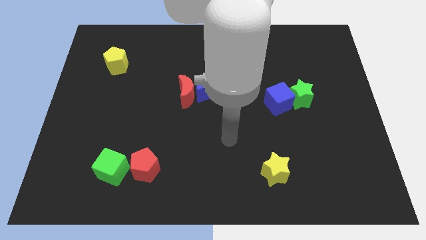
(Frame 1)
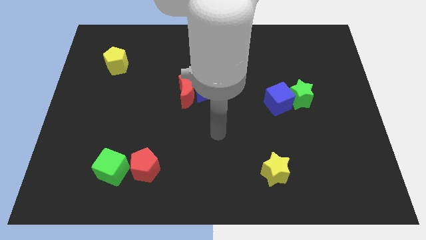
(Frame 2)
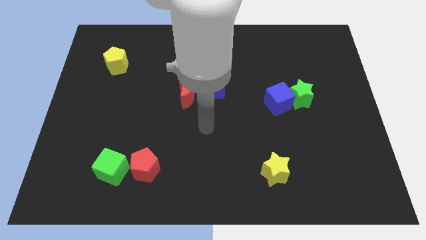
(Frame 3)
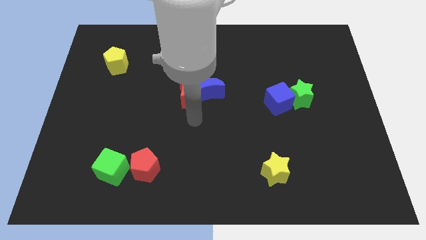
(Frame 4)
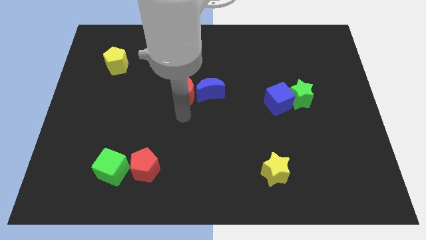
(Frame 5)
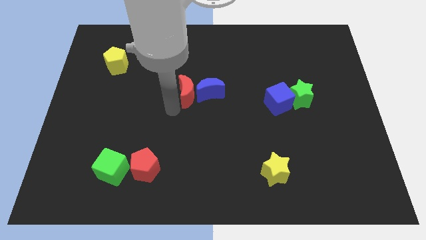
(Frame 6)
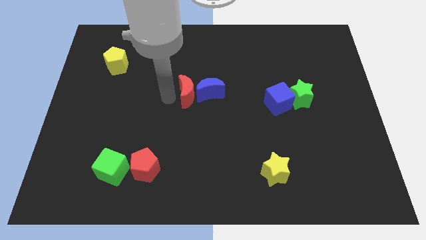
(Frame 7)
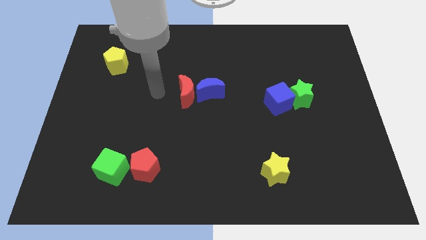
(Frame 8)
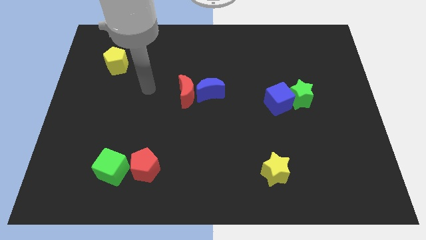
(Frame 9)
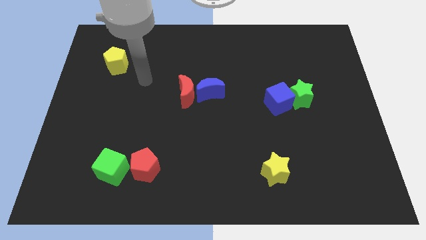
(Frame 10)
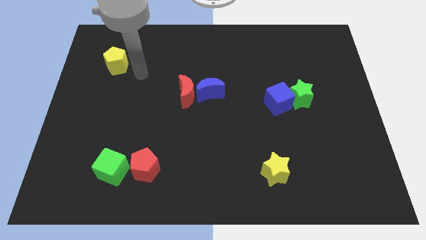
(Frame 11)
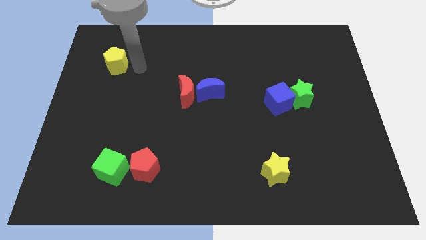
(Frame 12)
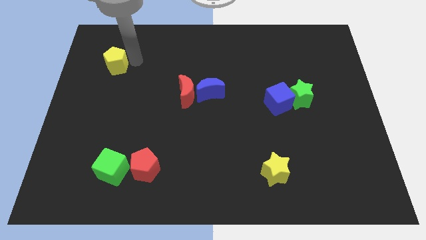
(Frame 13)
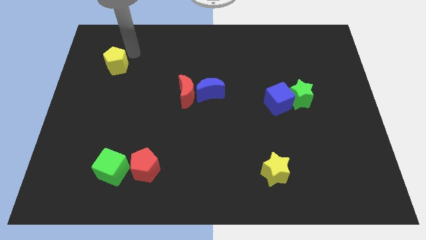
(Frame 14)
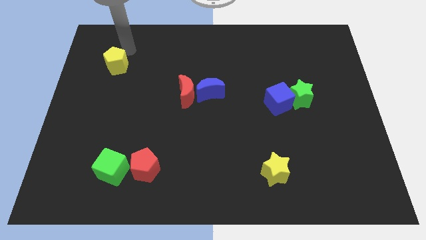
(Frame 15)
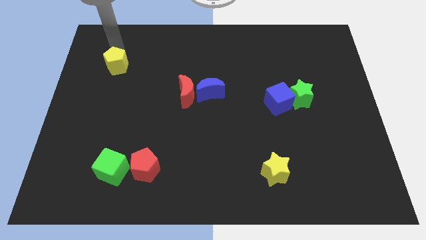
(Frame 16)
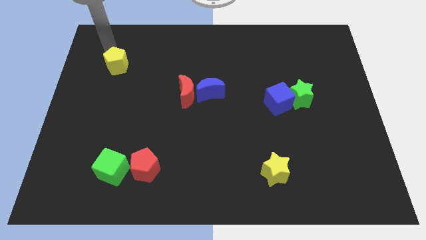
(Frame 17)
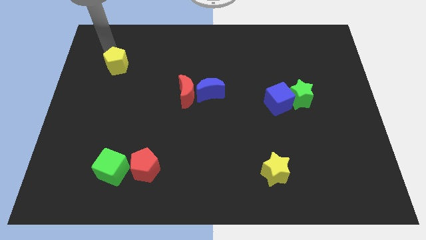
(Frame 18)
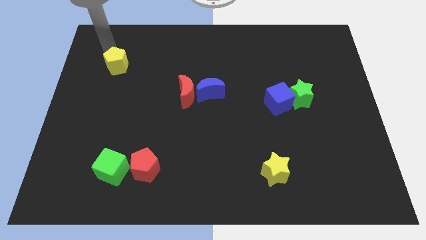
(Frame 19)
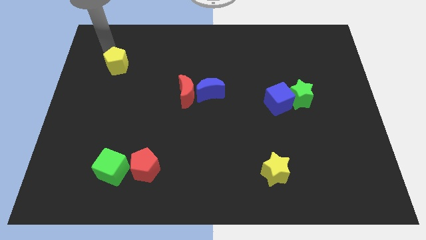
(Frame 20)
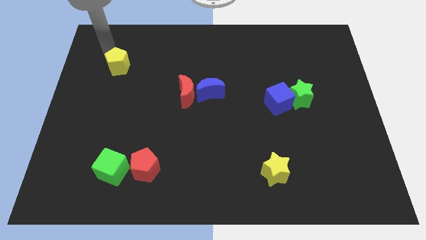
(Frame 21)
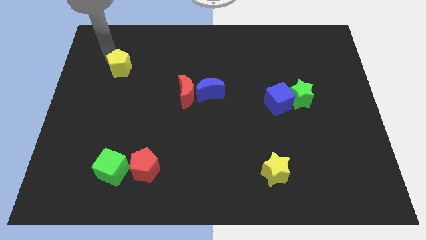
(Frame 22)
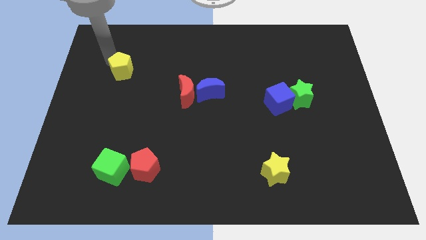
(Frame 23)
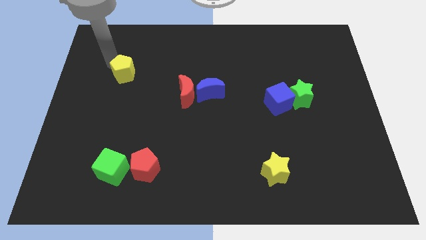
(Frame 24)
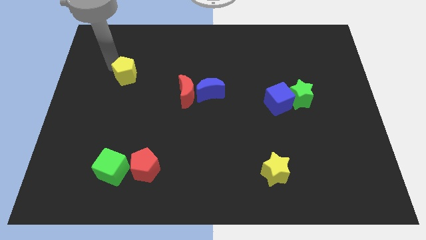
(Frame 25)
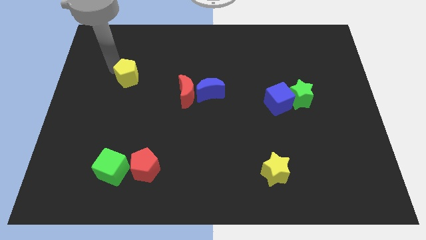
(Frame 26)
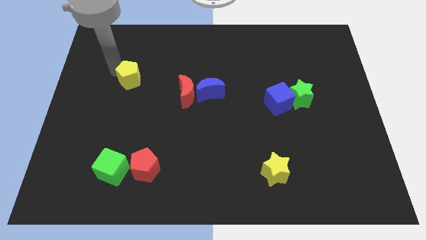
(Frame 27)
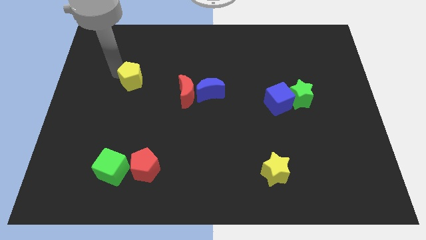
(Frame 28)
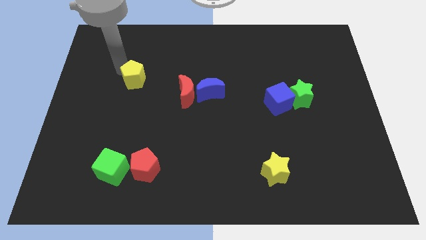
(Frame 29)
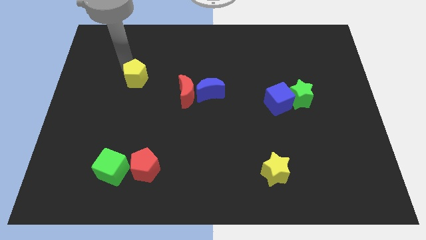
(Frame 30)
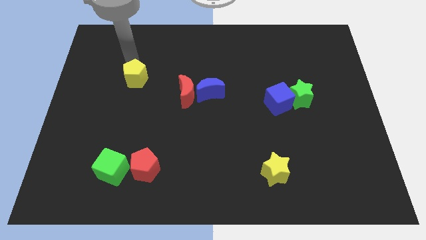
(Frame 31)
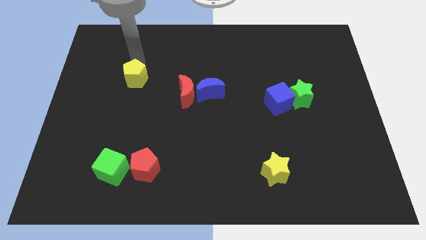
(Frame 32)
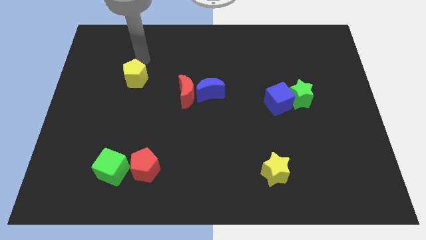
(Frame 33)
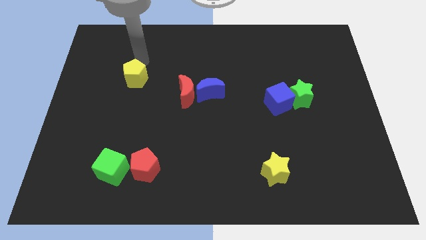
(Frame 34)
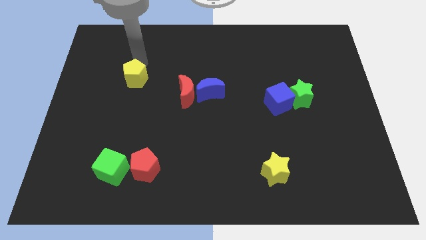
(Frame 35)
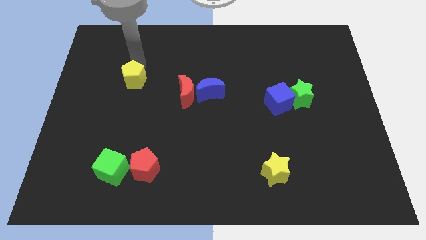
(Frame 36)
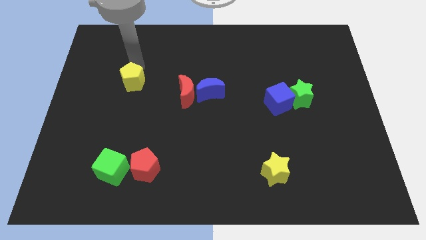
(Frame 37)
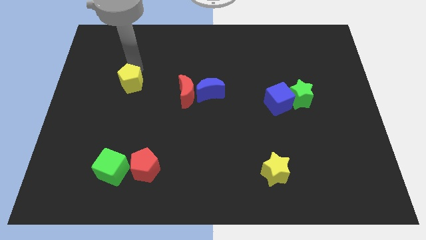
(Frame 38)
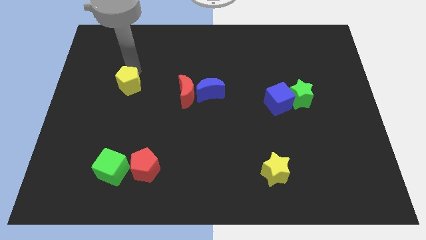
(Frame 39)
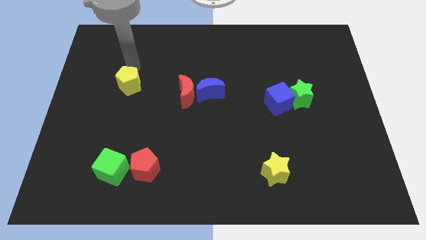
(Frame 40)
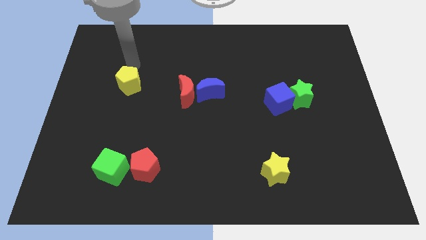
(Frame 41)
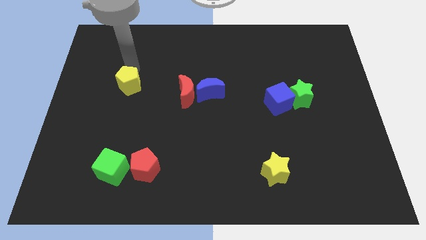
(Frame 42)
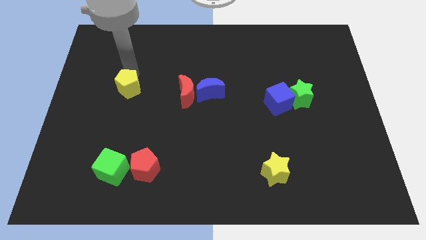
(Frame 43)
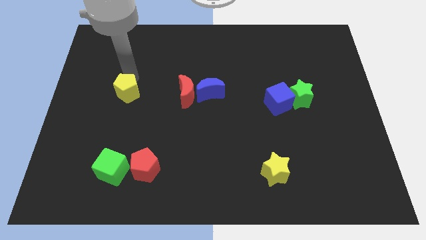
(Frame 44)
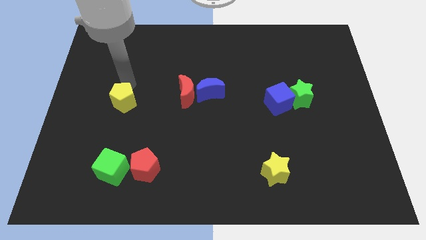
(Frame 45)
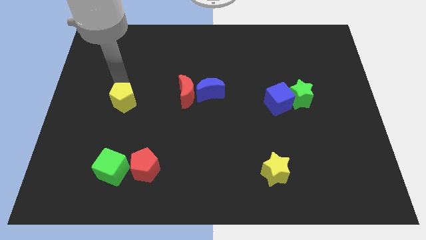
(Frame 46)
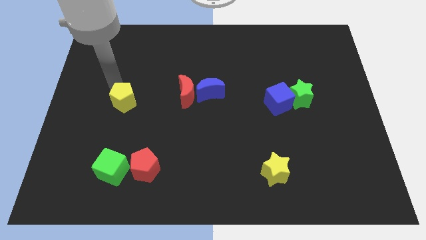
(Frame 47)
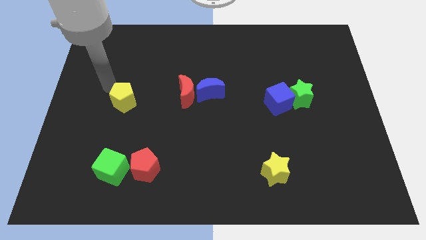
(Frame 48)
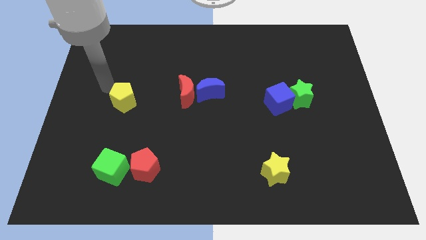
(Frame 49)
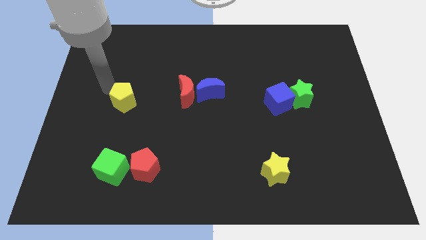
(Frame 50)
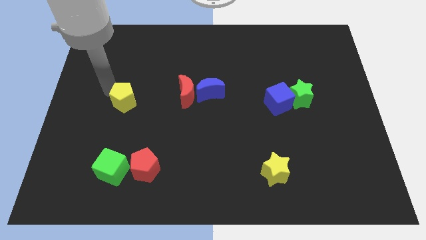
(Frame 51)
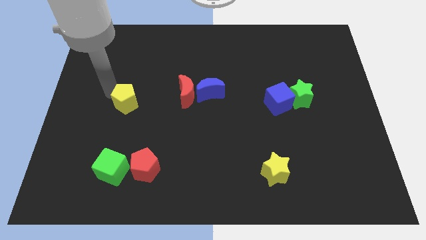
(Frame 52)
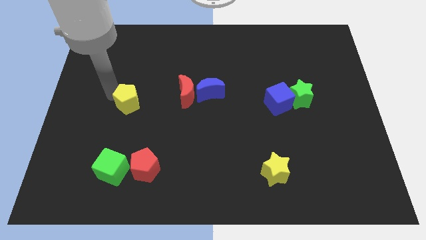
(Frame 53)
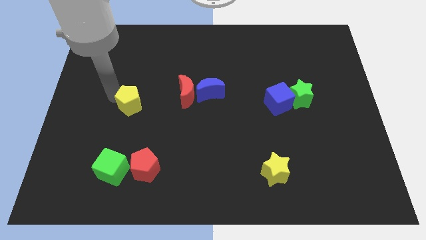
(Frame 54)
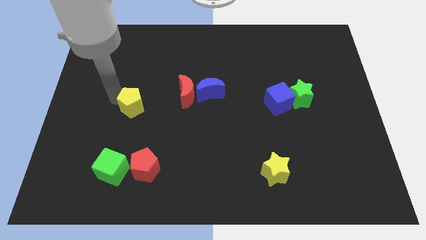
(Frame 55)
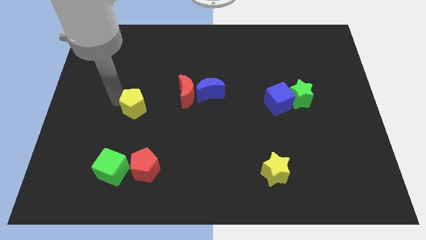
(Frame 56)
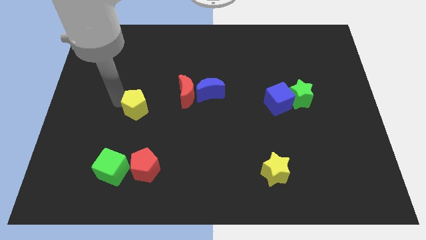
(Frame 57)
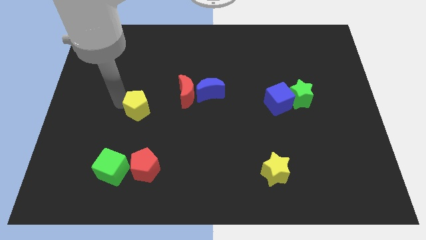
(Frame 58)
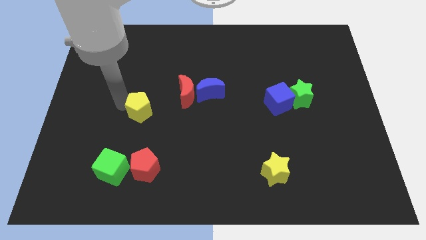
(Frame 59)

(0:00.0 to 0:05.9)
move the yellow pentagon above the red pentagon

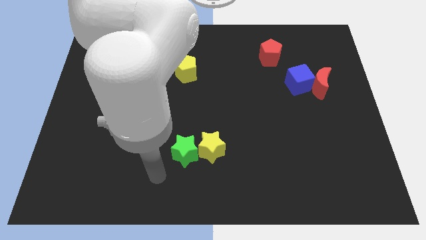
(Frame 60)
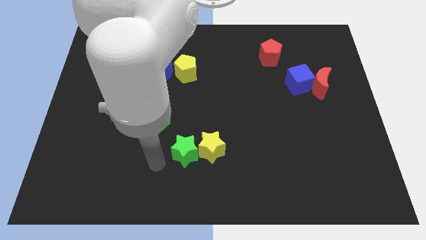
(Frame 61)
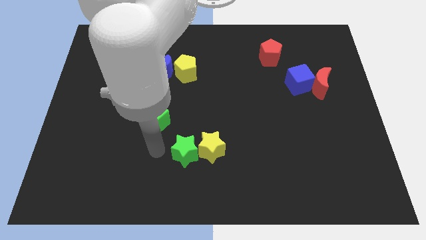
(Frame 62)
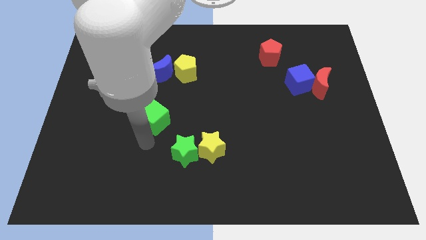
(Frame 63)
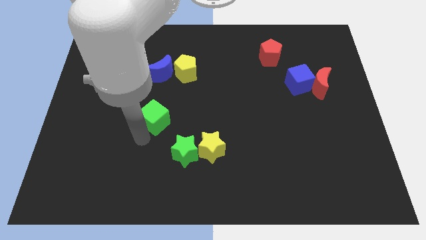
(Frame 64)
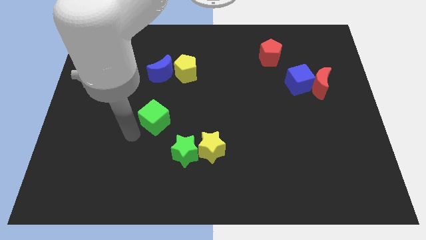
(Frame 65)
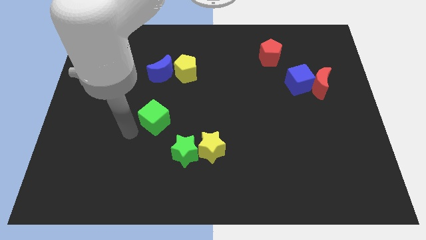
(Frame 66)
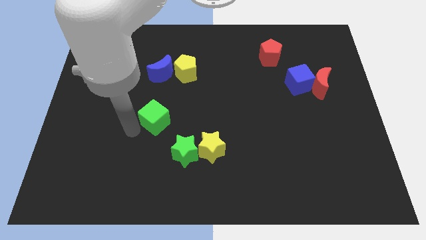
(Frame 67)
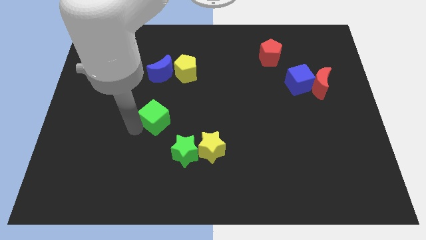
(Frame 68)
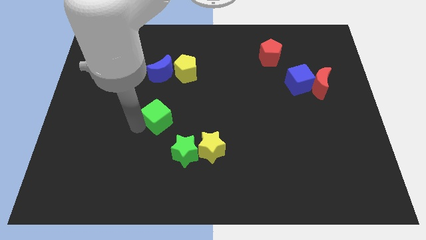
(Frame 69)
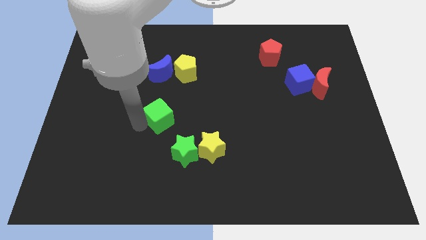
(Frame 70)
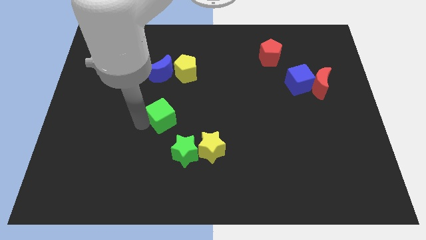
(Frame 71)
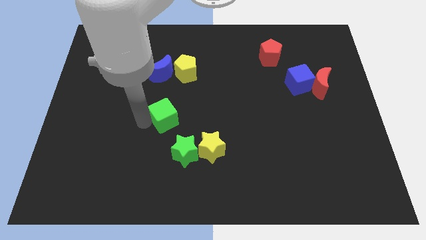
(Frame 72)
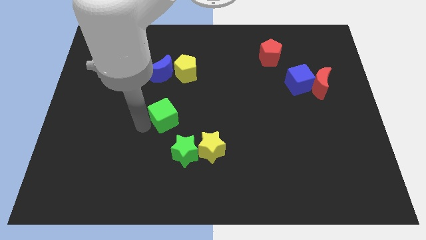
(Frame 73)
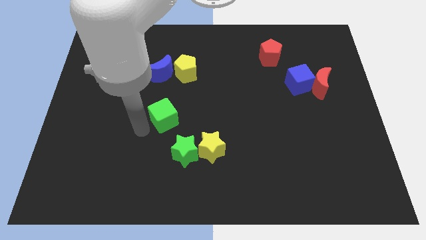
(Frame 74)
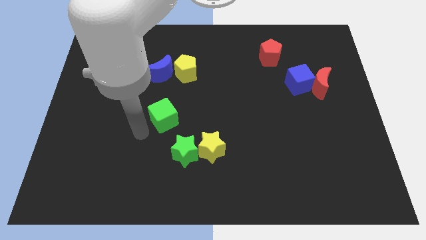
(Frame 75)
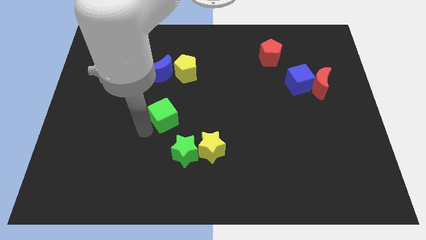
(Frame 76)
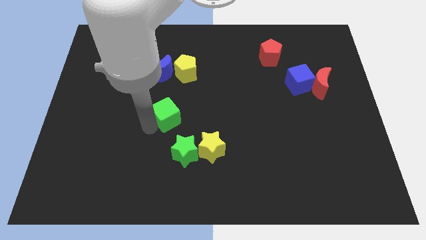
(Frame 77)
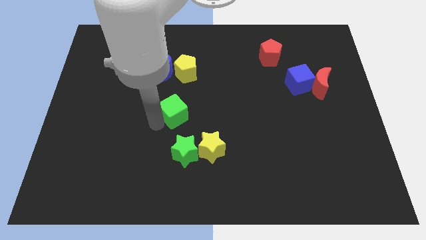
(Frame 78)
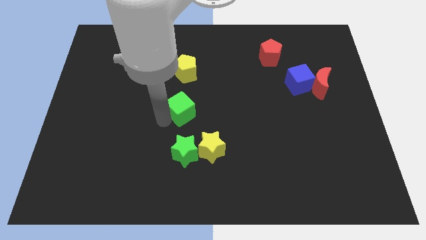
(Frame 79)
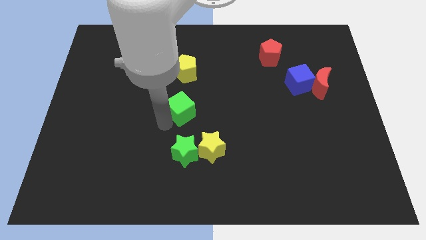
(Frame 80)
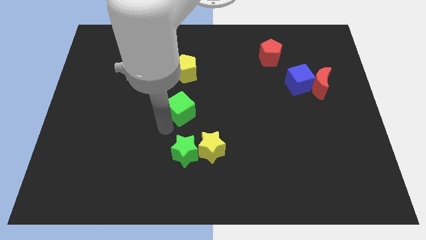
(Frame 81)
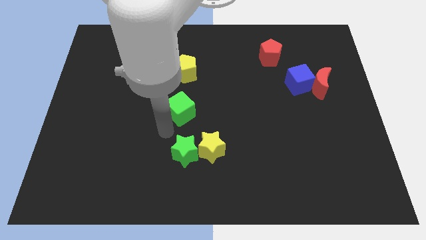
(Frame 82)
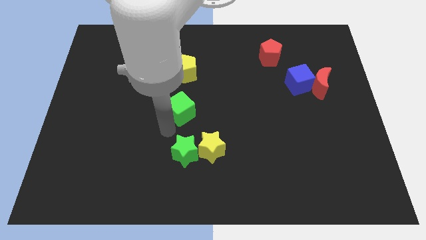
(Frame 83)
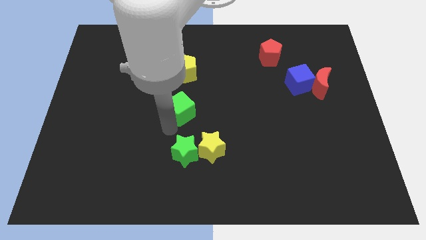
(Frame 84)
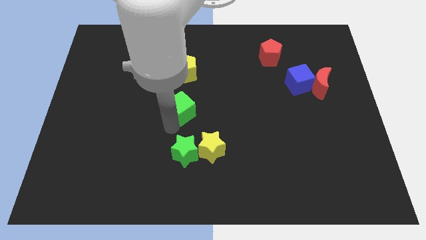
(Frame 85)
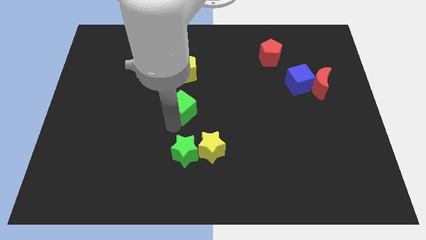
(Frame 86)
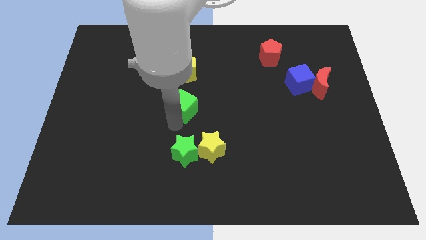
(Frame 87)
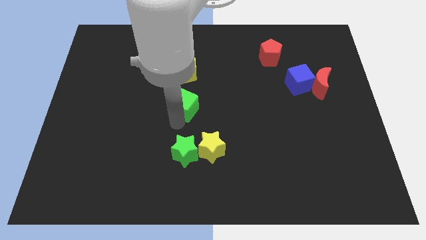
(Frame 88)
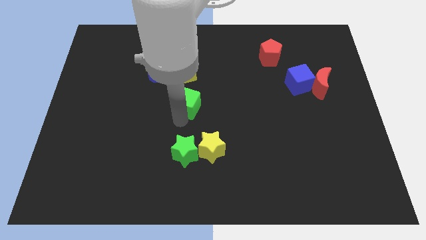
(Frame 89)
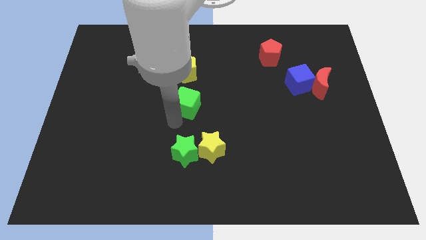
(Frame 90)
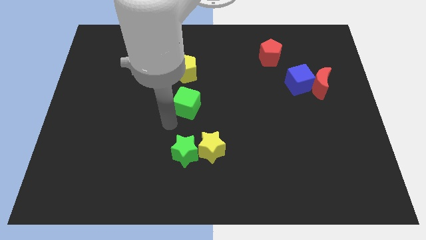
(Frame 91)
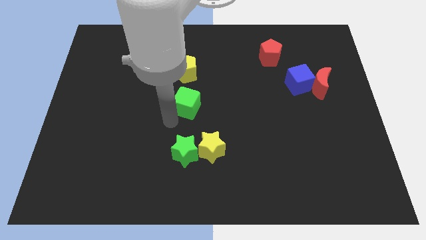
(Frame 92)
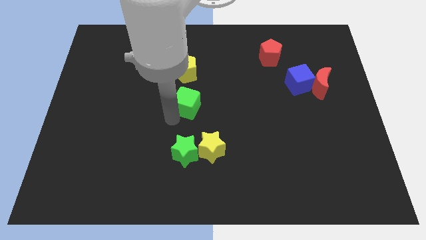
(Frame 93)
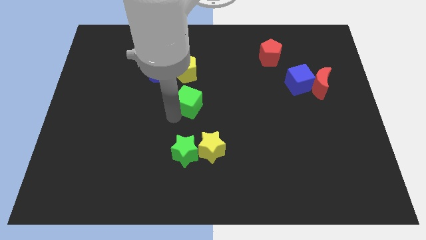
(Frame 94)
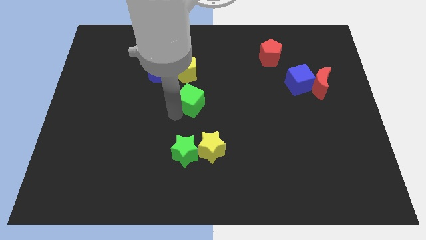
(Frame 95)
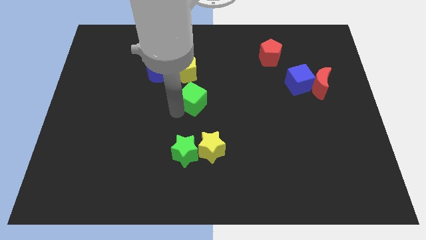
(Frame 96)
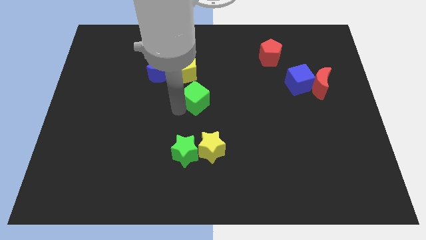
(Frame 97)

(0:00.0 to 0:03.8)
put the green cube to the bottom right of the yellow pentagon
